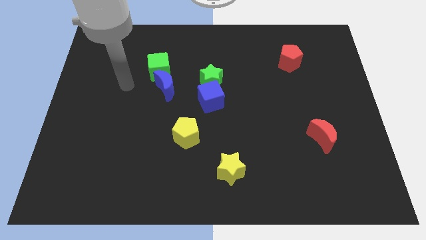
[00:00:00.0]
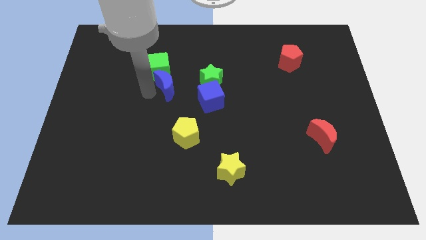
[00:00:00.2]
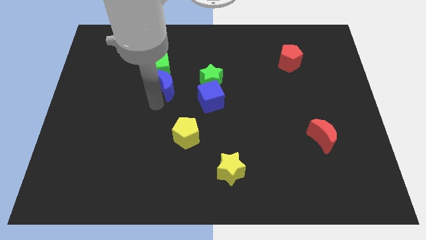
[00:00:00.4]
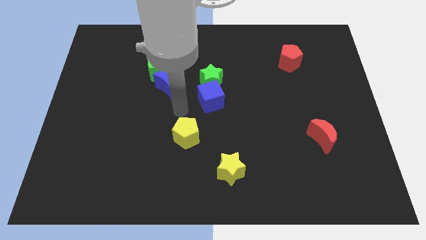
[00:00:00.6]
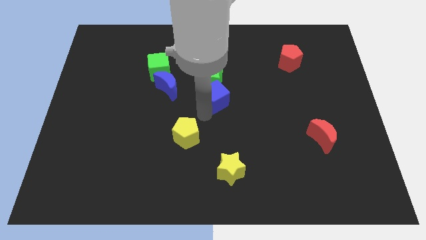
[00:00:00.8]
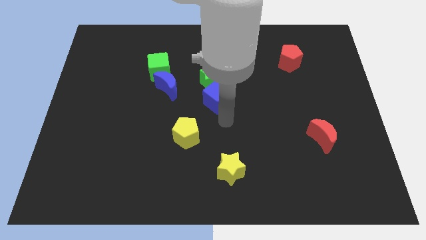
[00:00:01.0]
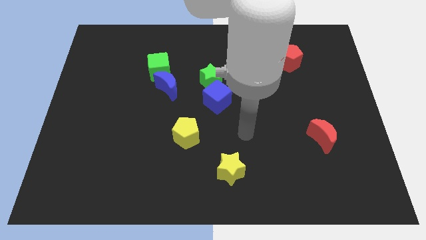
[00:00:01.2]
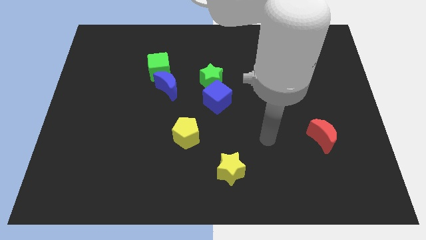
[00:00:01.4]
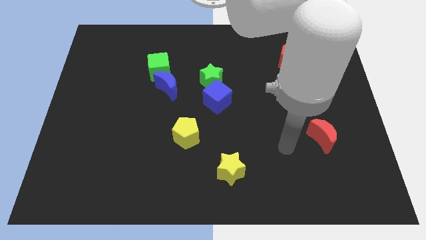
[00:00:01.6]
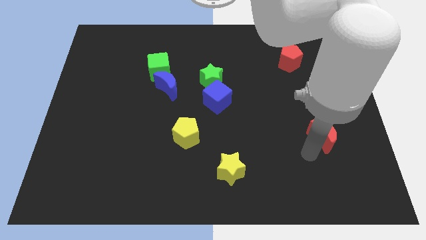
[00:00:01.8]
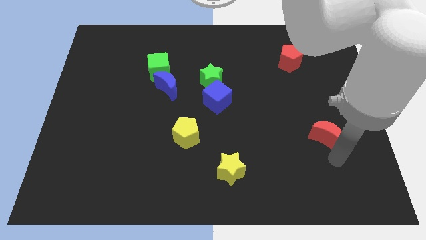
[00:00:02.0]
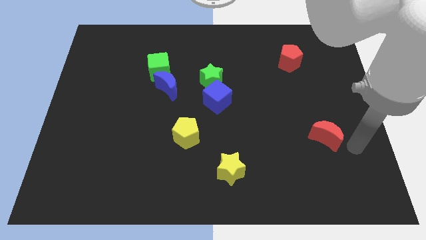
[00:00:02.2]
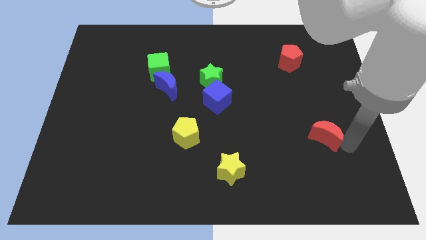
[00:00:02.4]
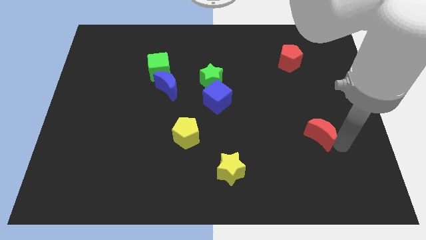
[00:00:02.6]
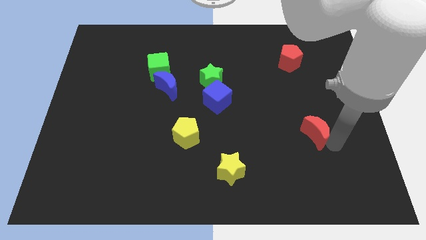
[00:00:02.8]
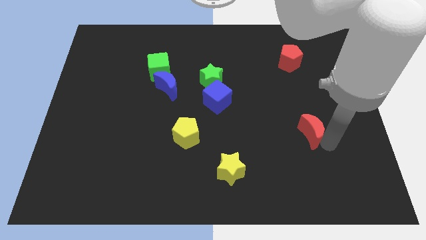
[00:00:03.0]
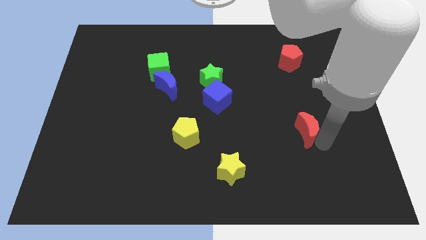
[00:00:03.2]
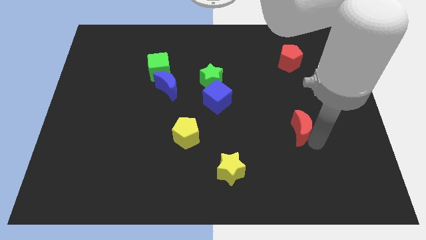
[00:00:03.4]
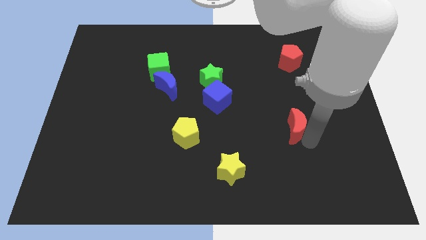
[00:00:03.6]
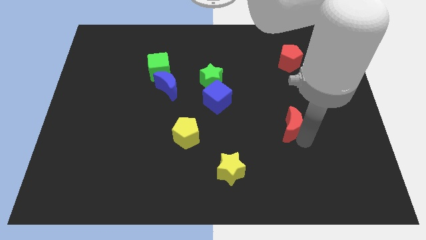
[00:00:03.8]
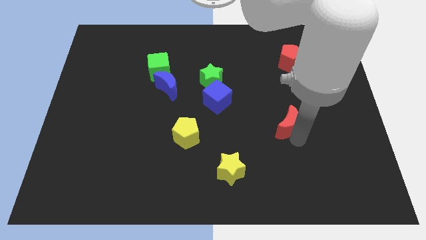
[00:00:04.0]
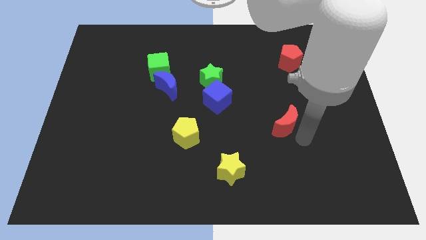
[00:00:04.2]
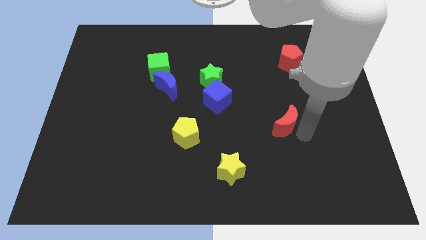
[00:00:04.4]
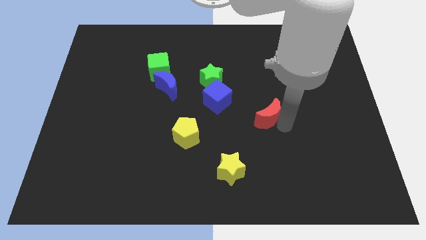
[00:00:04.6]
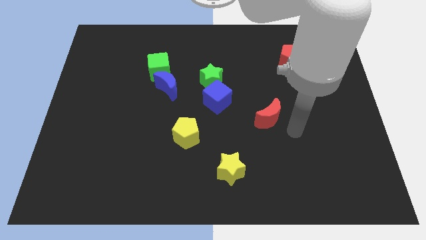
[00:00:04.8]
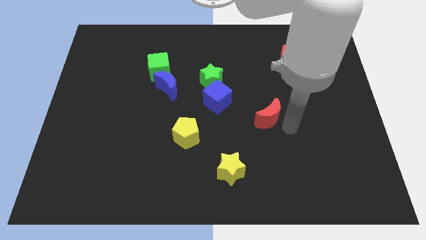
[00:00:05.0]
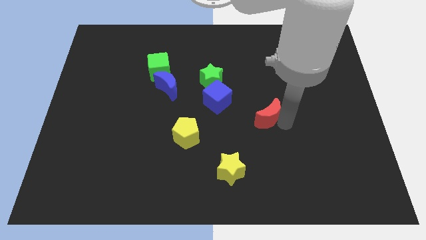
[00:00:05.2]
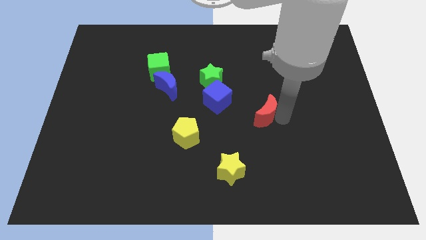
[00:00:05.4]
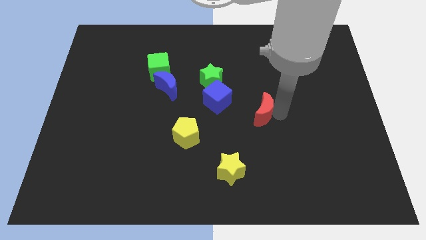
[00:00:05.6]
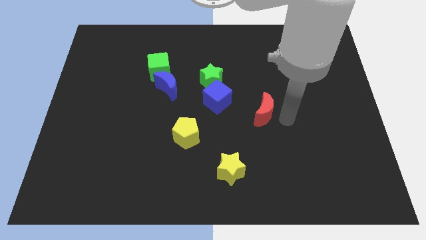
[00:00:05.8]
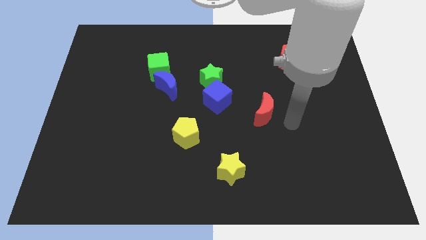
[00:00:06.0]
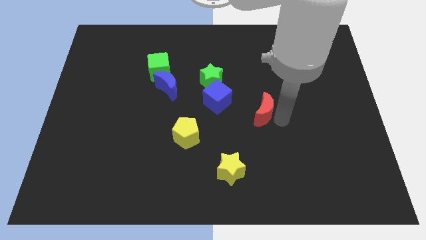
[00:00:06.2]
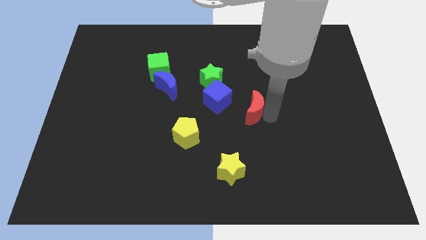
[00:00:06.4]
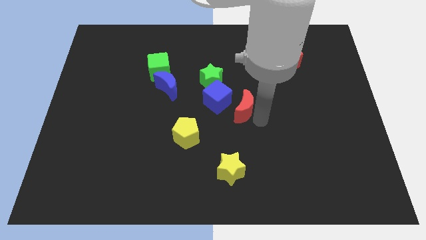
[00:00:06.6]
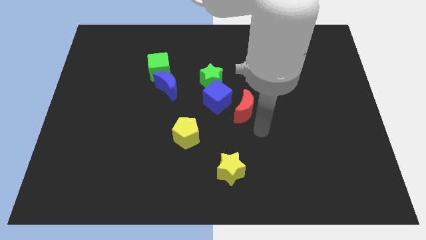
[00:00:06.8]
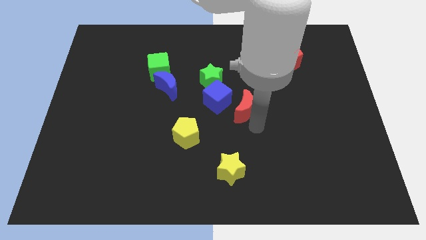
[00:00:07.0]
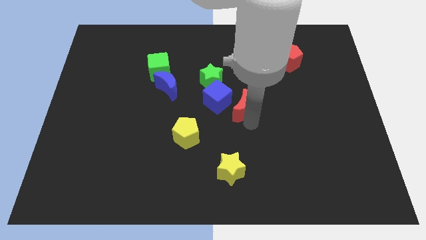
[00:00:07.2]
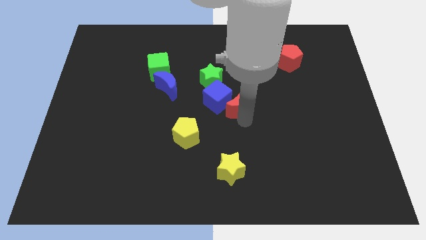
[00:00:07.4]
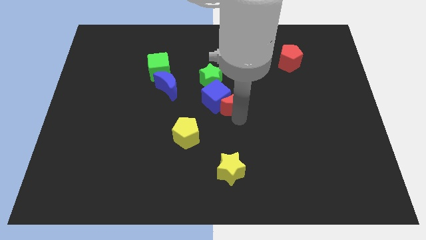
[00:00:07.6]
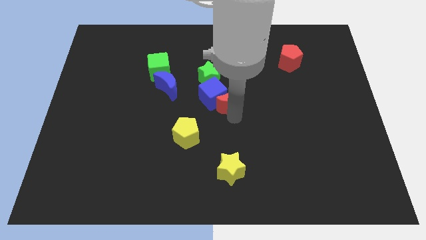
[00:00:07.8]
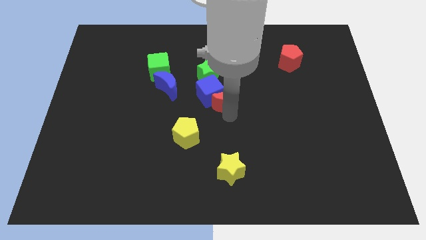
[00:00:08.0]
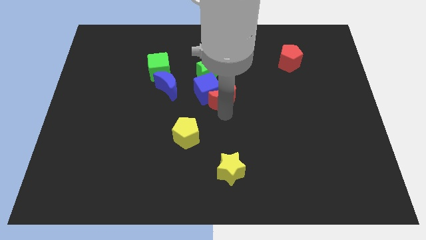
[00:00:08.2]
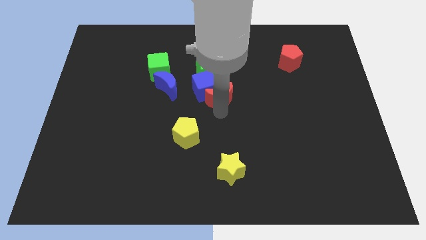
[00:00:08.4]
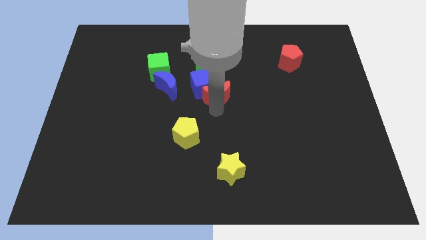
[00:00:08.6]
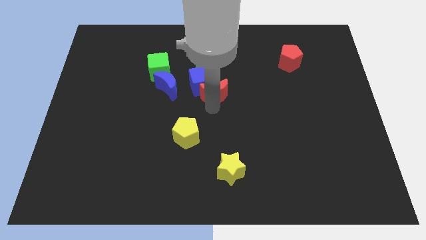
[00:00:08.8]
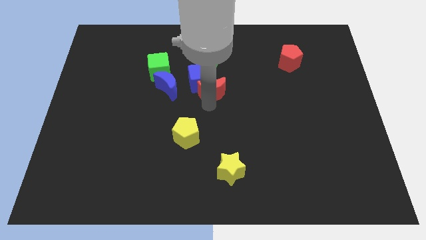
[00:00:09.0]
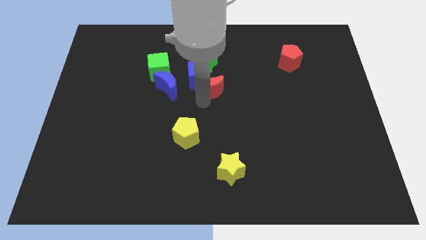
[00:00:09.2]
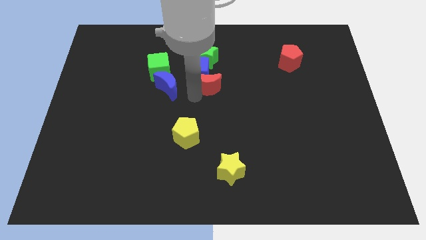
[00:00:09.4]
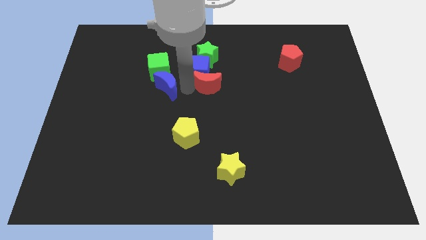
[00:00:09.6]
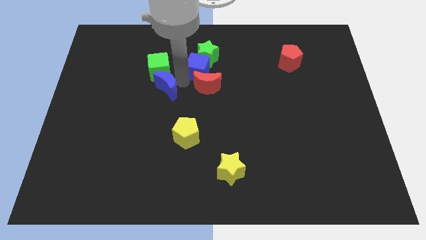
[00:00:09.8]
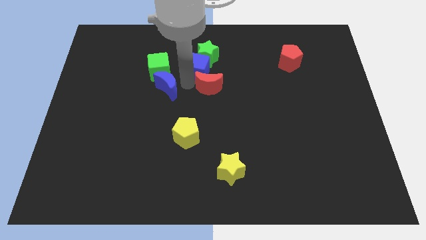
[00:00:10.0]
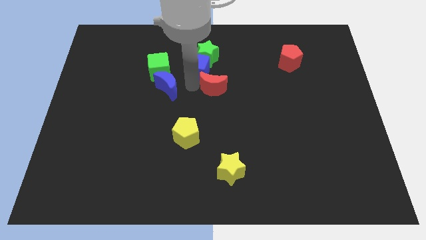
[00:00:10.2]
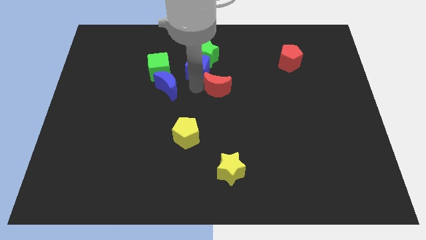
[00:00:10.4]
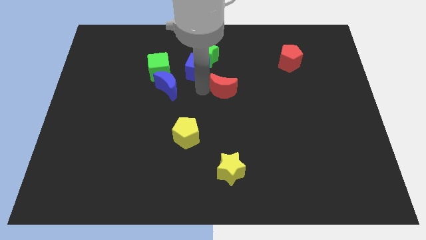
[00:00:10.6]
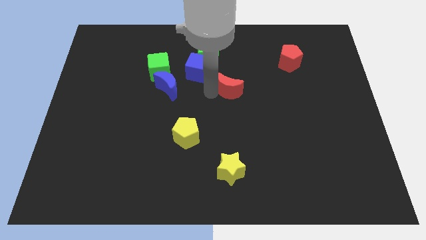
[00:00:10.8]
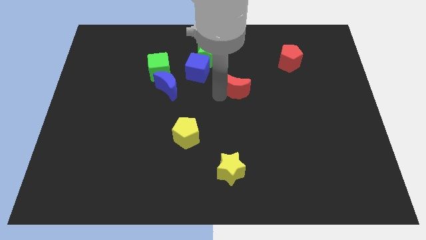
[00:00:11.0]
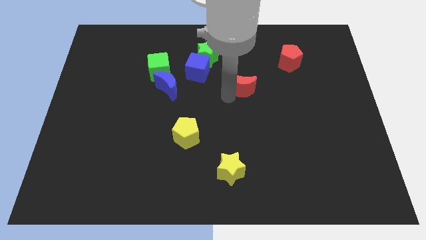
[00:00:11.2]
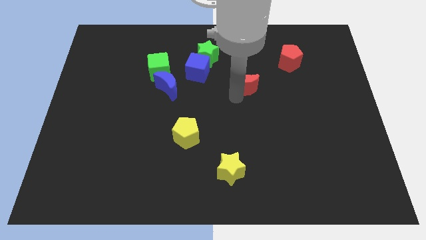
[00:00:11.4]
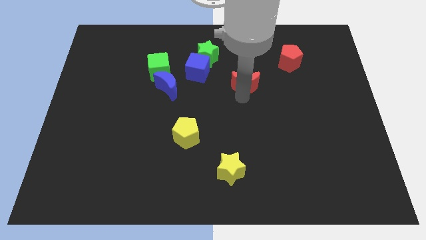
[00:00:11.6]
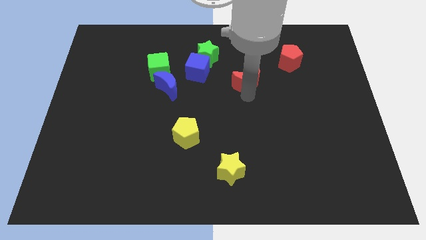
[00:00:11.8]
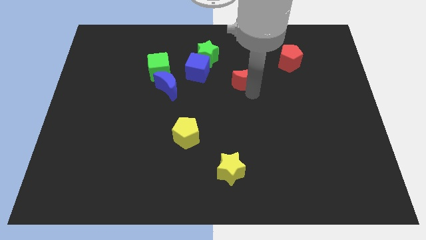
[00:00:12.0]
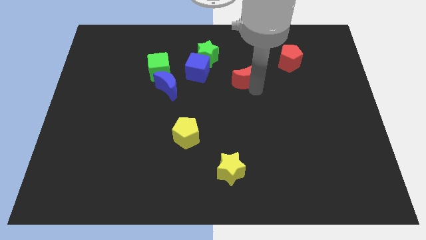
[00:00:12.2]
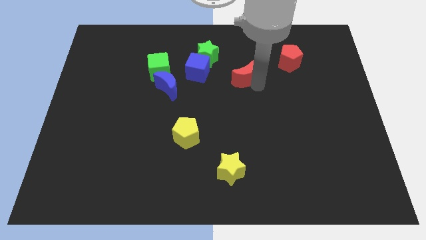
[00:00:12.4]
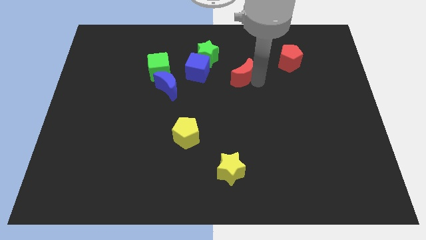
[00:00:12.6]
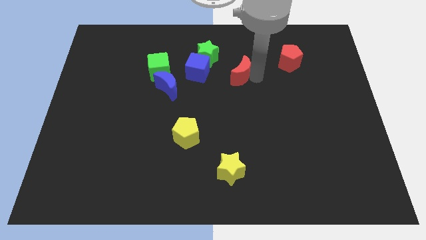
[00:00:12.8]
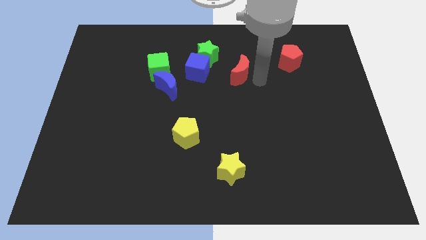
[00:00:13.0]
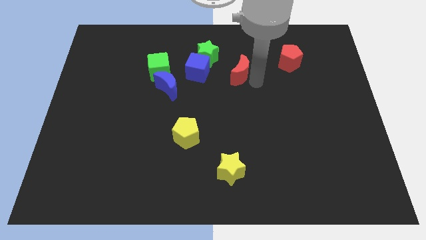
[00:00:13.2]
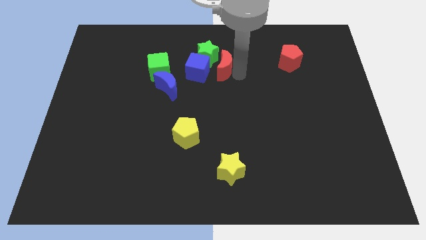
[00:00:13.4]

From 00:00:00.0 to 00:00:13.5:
move the red moon towards the green star
